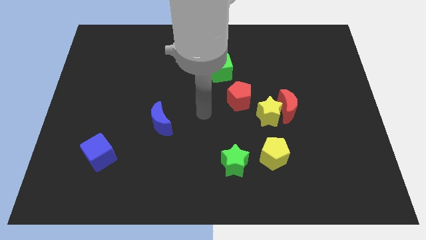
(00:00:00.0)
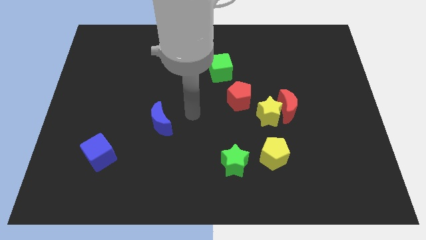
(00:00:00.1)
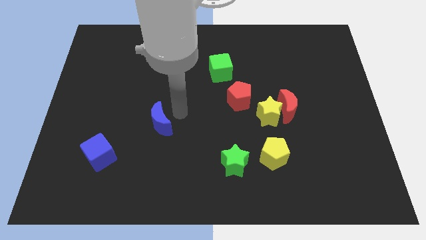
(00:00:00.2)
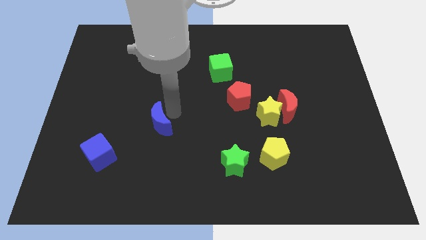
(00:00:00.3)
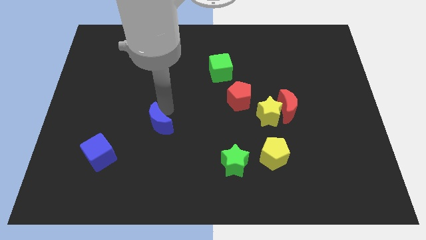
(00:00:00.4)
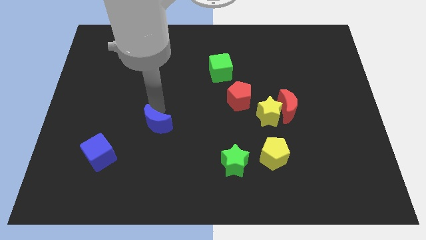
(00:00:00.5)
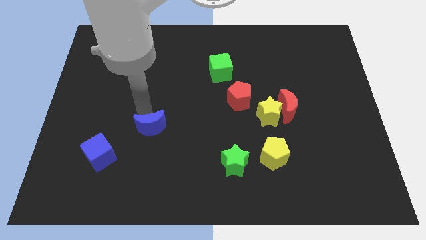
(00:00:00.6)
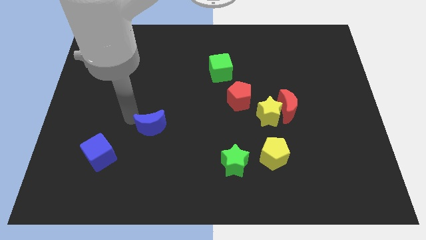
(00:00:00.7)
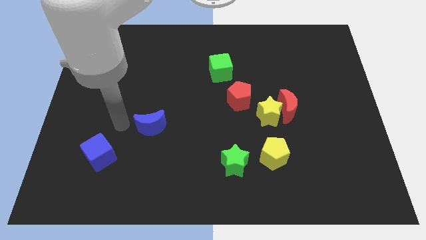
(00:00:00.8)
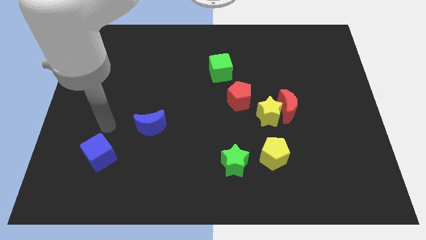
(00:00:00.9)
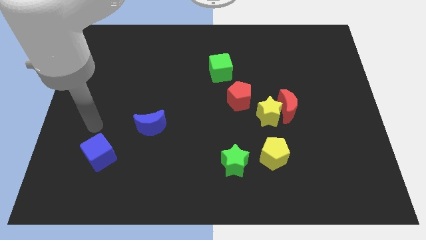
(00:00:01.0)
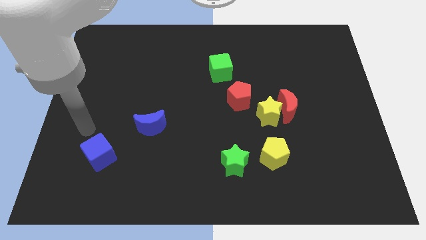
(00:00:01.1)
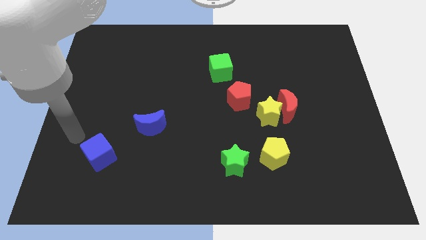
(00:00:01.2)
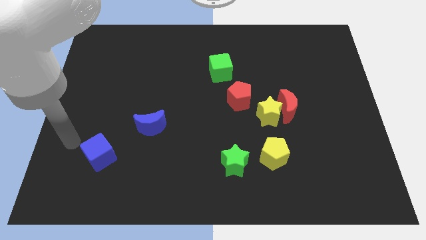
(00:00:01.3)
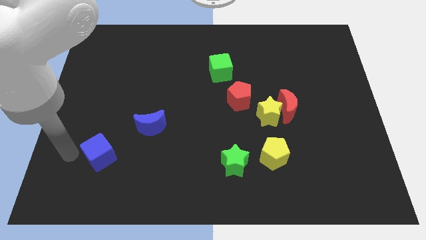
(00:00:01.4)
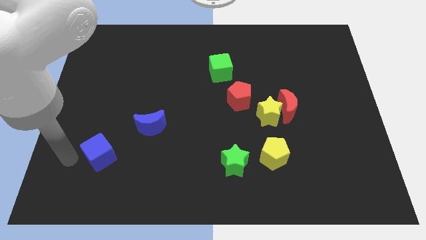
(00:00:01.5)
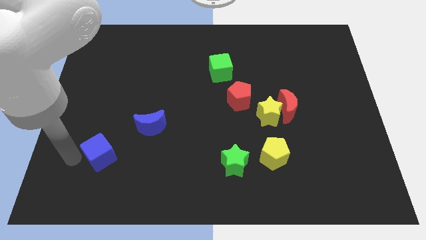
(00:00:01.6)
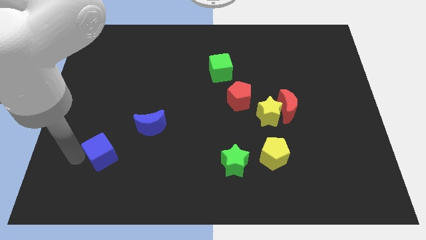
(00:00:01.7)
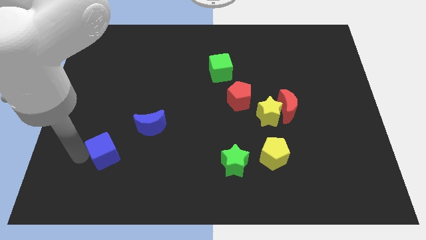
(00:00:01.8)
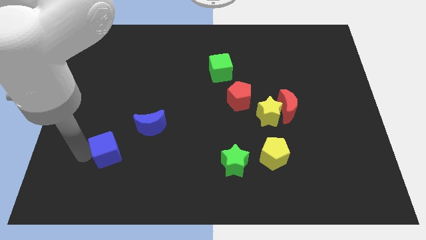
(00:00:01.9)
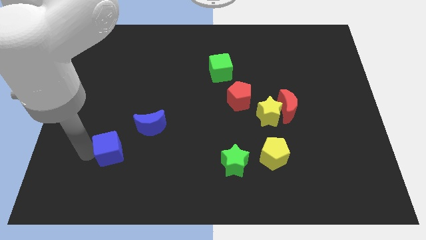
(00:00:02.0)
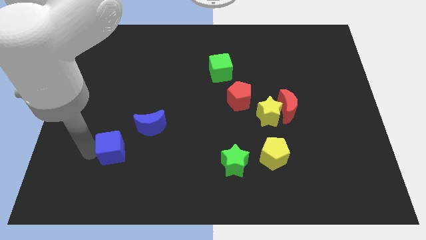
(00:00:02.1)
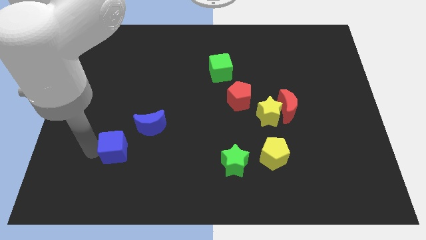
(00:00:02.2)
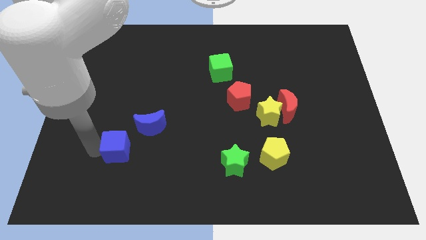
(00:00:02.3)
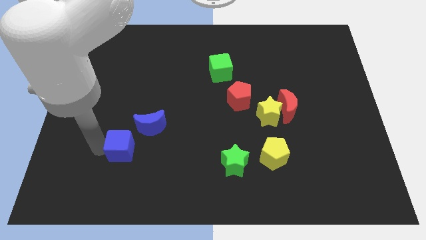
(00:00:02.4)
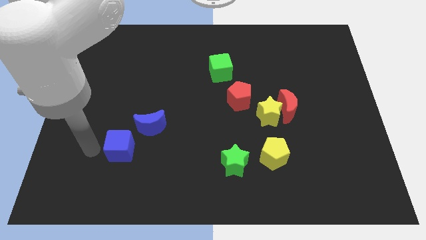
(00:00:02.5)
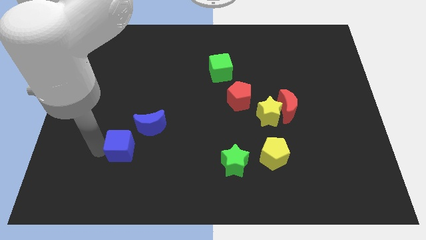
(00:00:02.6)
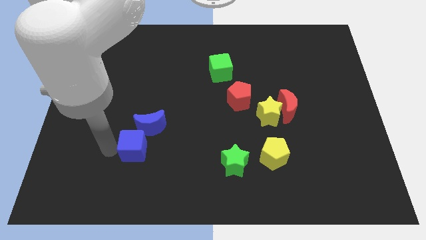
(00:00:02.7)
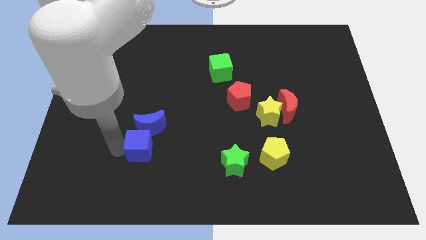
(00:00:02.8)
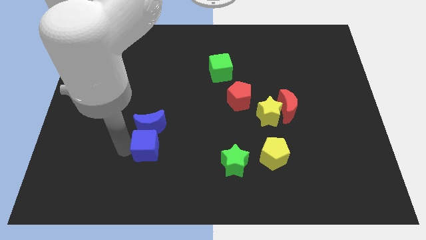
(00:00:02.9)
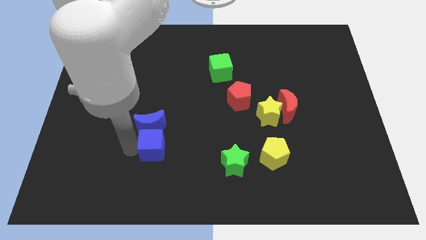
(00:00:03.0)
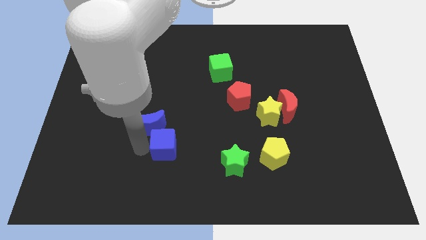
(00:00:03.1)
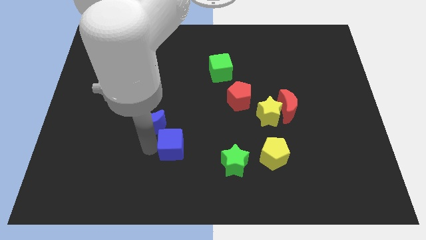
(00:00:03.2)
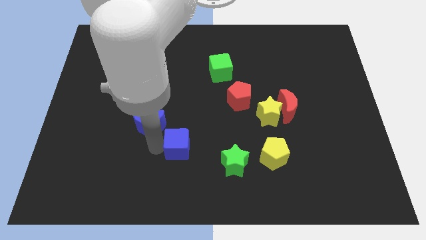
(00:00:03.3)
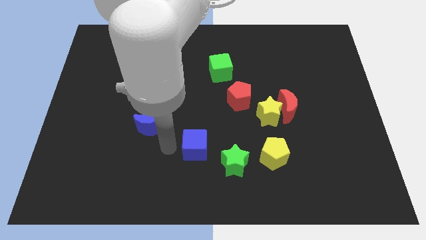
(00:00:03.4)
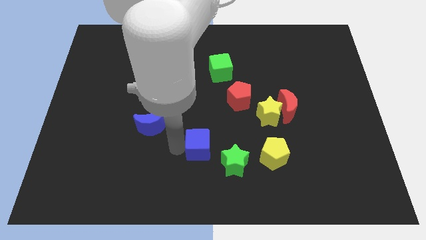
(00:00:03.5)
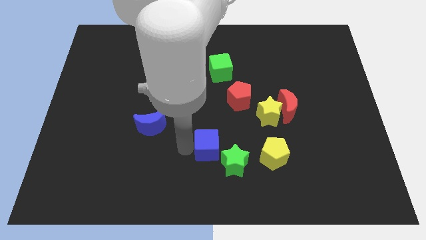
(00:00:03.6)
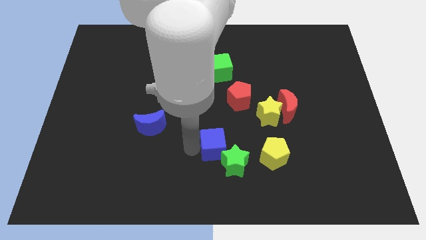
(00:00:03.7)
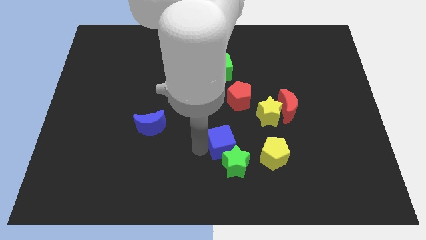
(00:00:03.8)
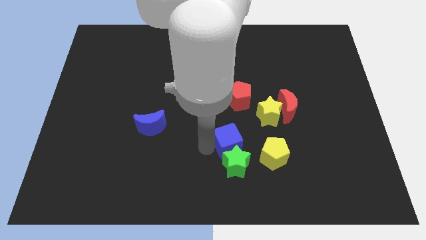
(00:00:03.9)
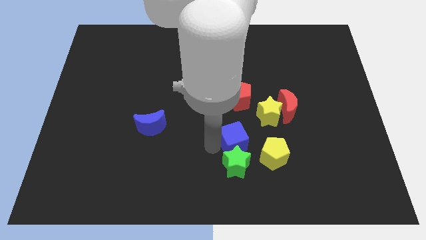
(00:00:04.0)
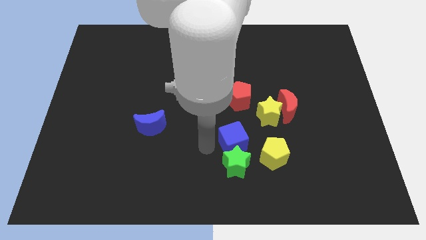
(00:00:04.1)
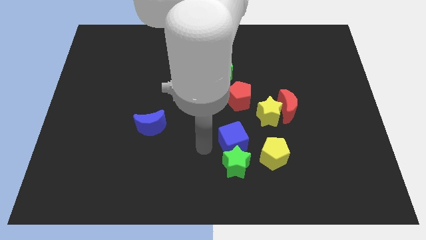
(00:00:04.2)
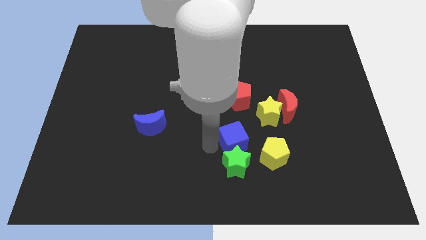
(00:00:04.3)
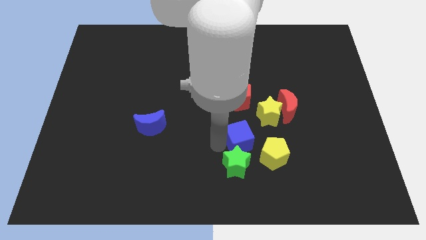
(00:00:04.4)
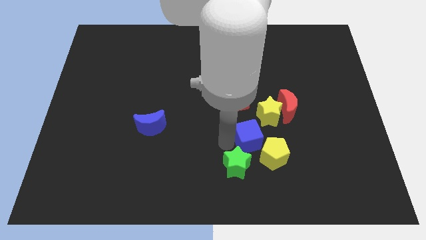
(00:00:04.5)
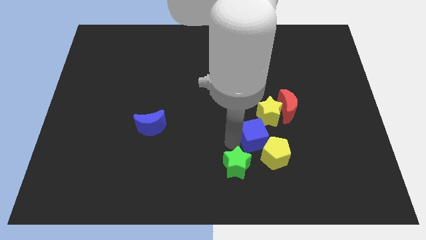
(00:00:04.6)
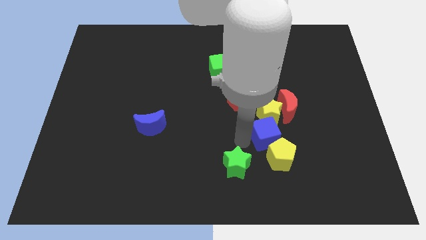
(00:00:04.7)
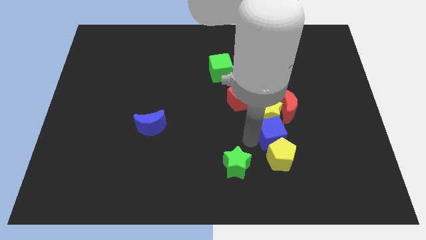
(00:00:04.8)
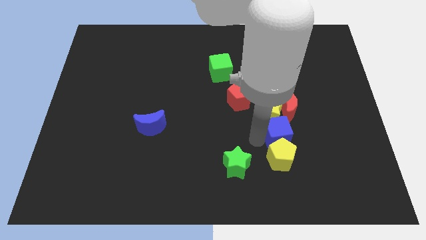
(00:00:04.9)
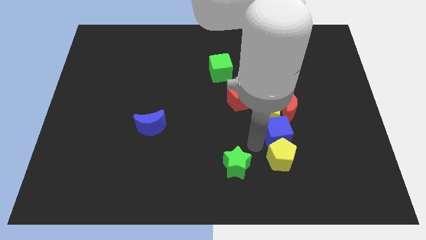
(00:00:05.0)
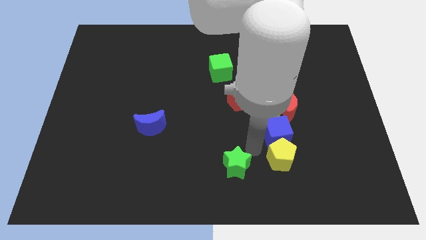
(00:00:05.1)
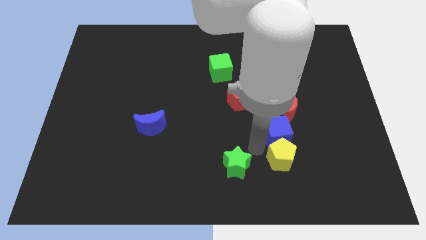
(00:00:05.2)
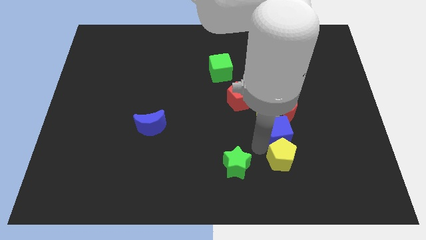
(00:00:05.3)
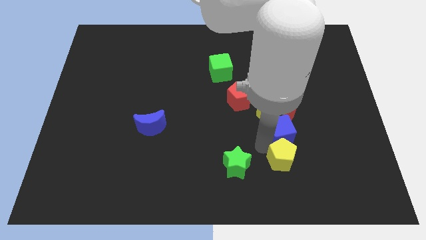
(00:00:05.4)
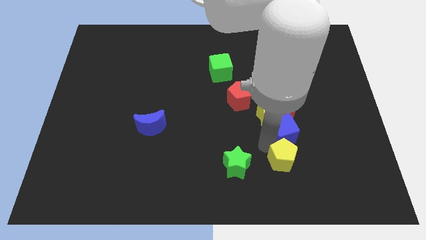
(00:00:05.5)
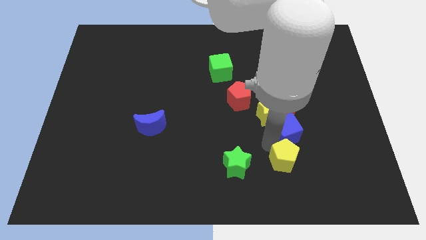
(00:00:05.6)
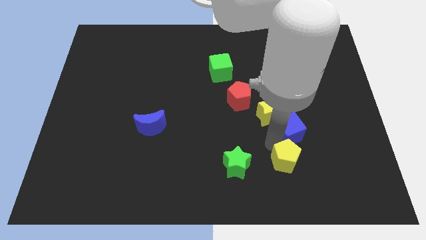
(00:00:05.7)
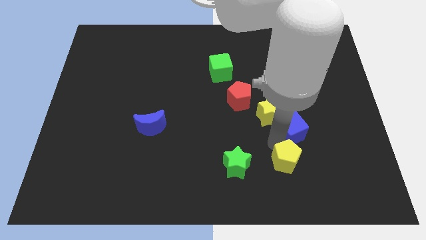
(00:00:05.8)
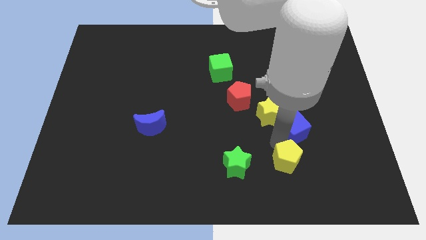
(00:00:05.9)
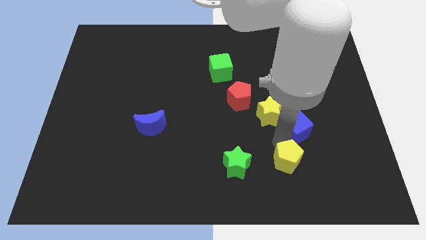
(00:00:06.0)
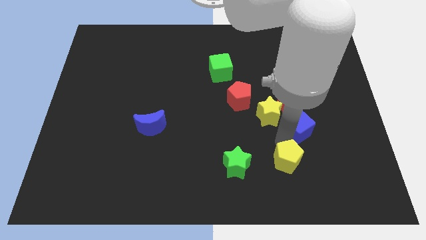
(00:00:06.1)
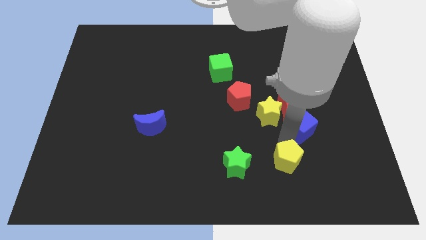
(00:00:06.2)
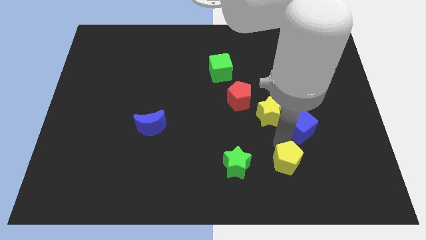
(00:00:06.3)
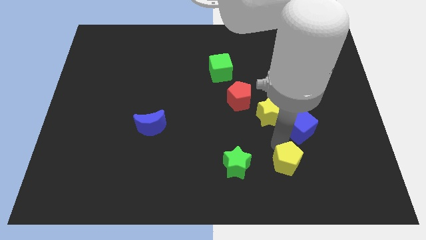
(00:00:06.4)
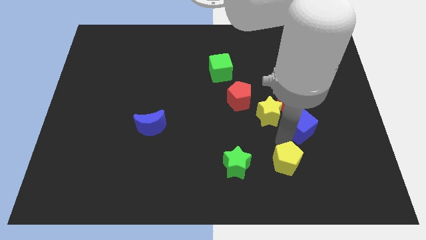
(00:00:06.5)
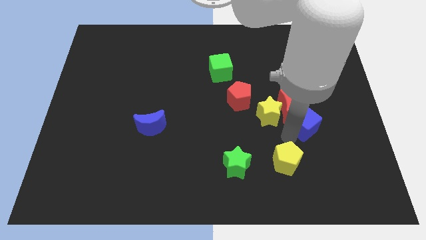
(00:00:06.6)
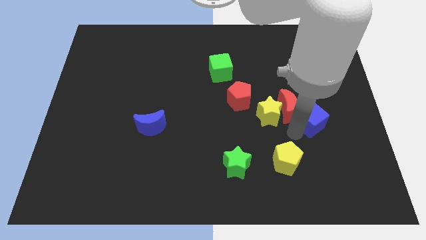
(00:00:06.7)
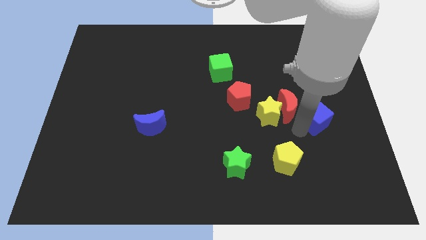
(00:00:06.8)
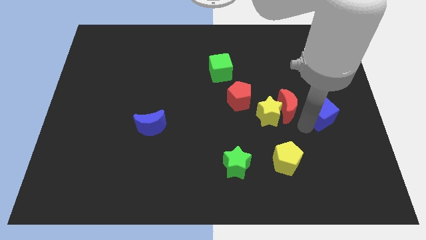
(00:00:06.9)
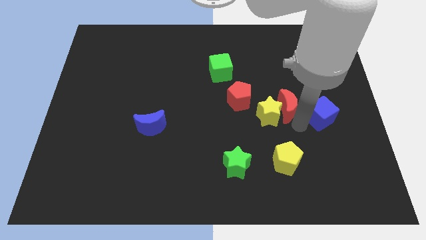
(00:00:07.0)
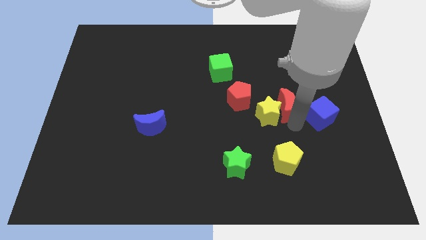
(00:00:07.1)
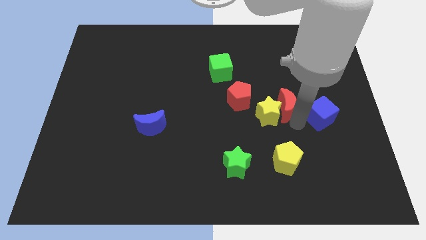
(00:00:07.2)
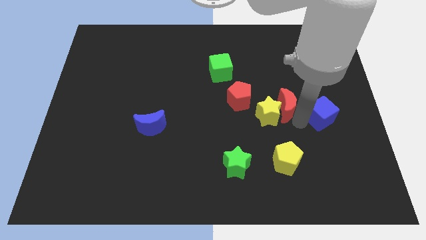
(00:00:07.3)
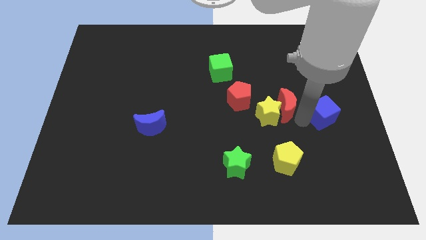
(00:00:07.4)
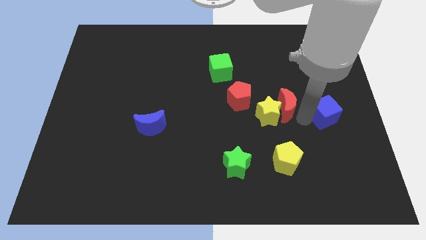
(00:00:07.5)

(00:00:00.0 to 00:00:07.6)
move the blue cube to the center right

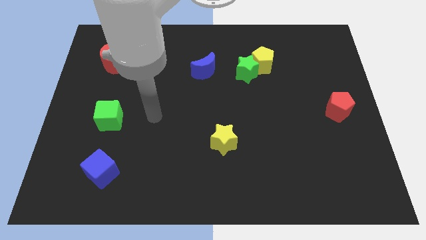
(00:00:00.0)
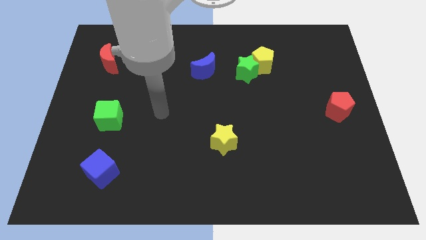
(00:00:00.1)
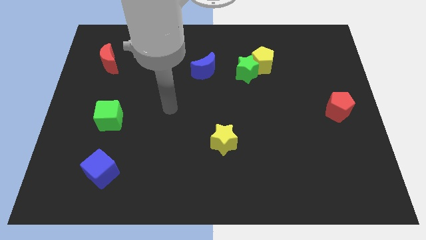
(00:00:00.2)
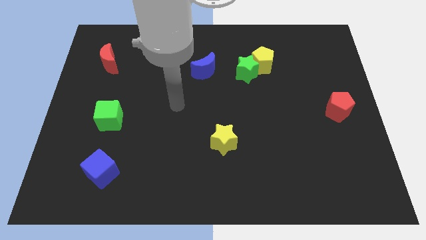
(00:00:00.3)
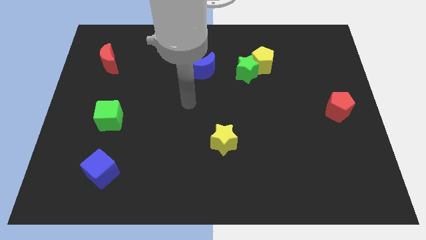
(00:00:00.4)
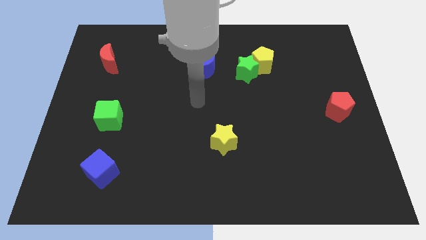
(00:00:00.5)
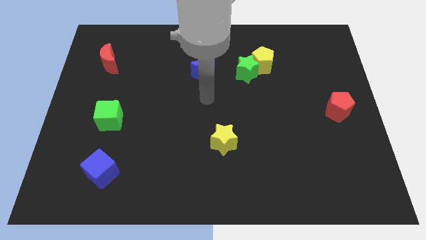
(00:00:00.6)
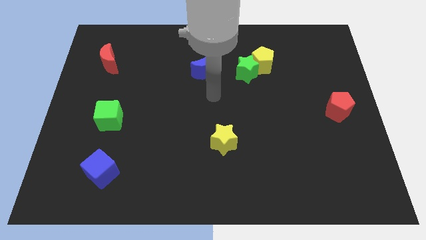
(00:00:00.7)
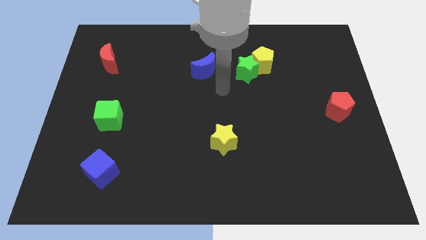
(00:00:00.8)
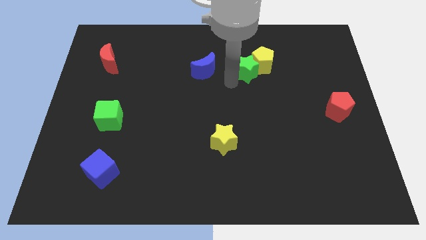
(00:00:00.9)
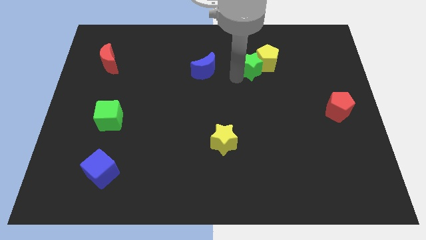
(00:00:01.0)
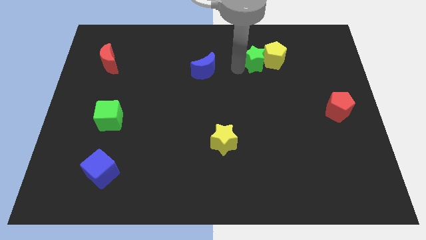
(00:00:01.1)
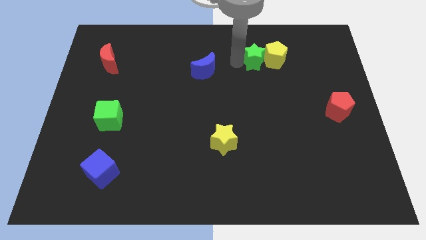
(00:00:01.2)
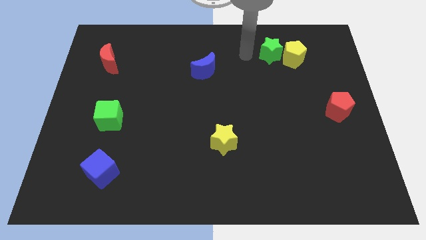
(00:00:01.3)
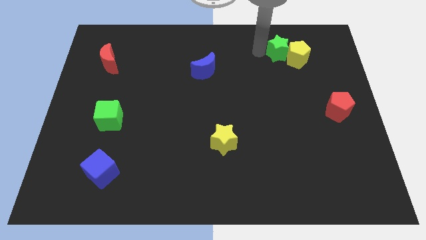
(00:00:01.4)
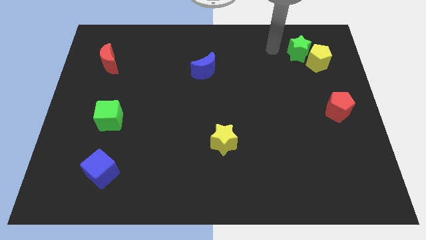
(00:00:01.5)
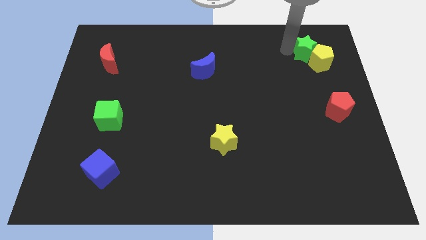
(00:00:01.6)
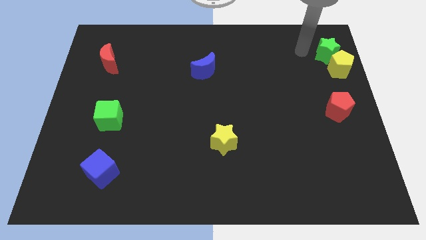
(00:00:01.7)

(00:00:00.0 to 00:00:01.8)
put the yellow pentagon to the center right
